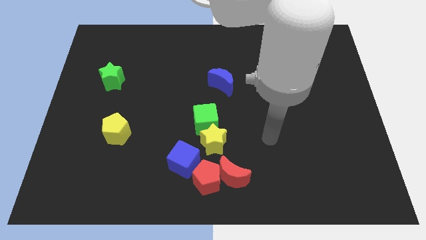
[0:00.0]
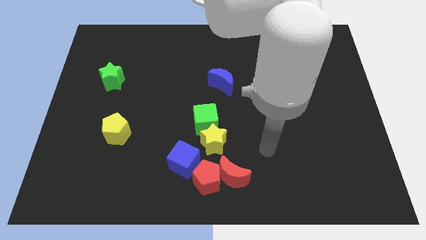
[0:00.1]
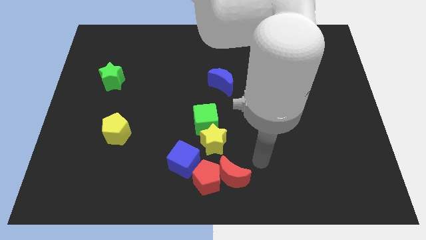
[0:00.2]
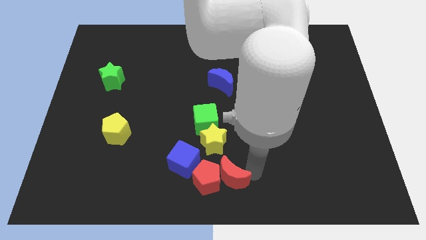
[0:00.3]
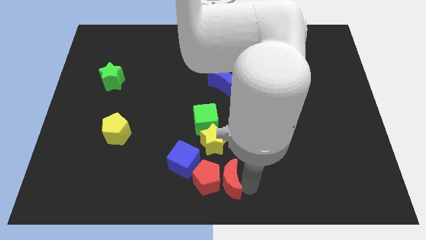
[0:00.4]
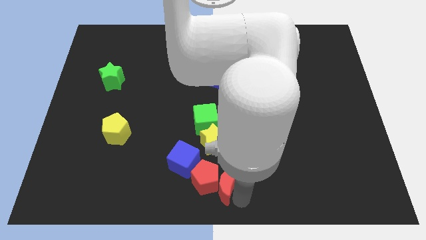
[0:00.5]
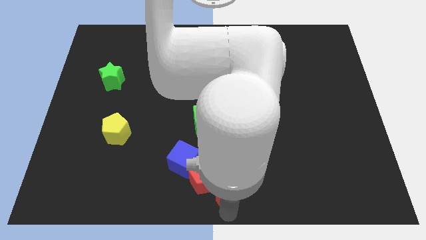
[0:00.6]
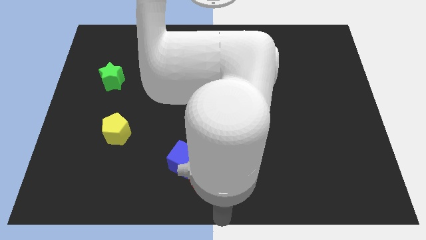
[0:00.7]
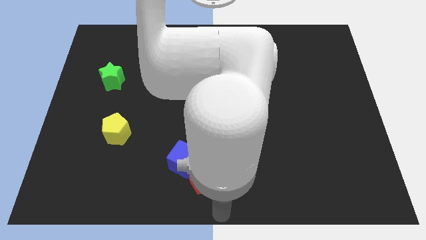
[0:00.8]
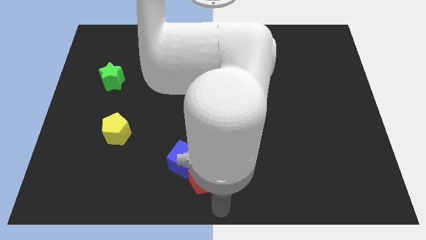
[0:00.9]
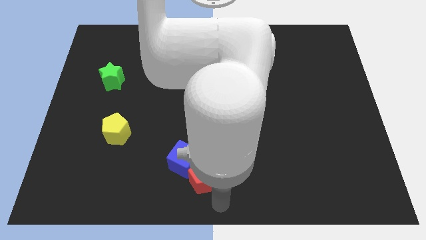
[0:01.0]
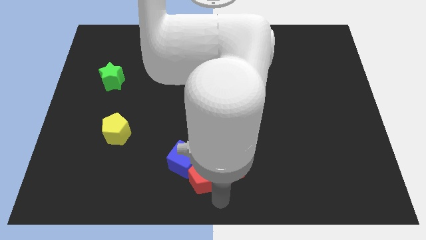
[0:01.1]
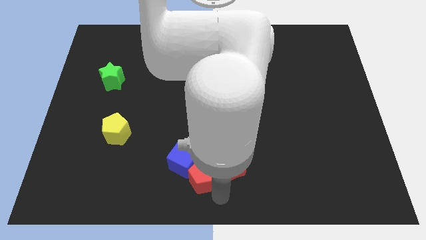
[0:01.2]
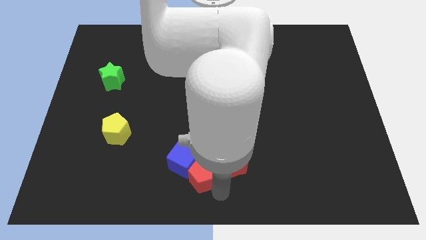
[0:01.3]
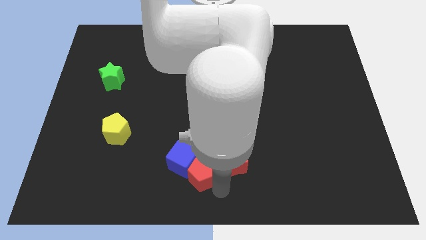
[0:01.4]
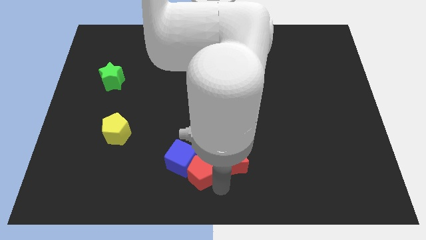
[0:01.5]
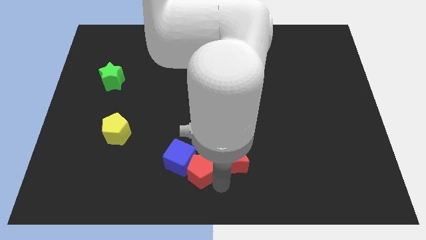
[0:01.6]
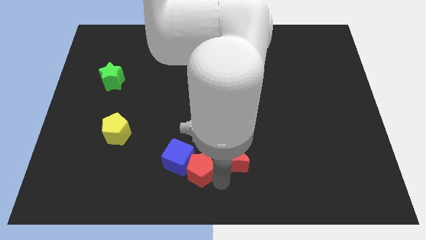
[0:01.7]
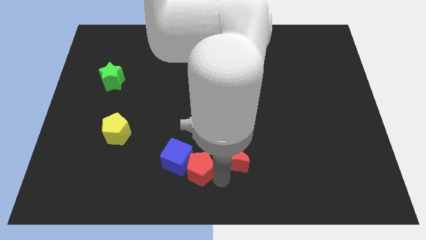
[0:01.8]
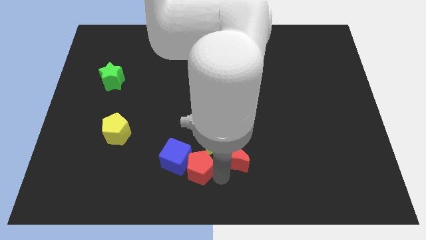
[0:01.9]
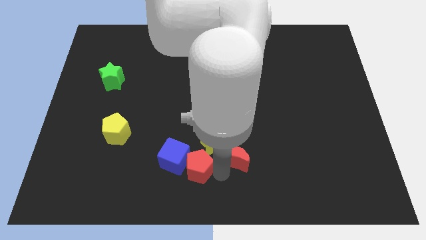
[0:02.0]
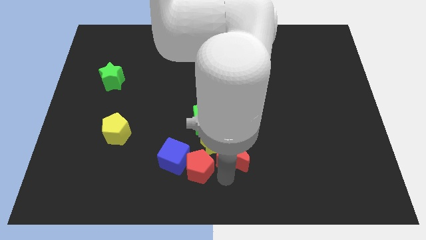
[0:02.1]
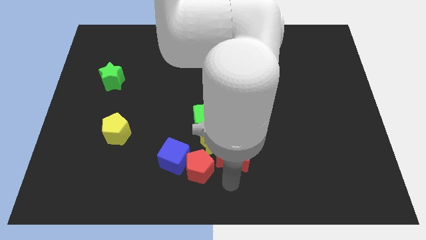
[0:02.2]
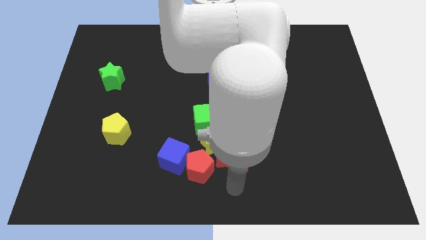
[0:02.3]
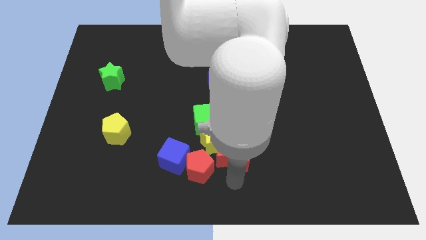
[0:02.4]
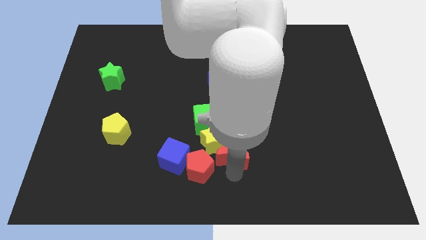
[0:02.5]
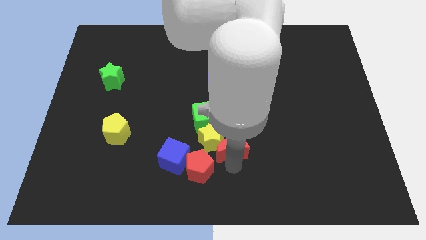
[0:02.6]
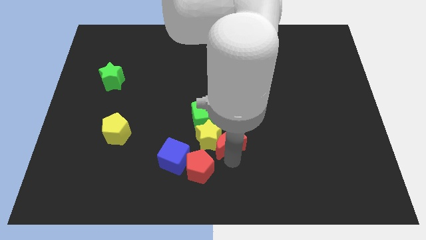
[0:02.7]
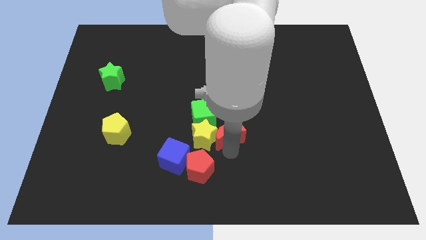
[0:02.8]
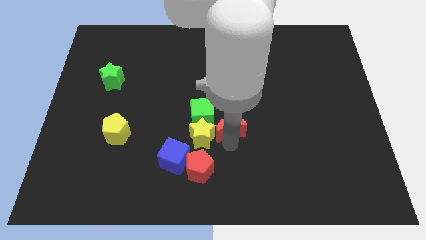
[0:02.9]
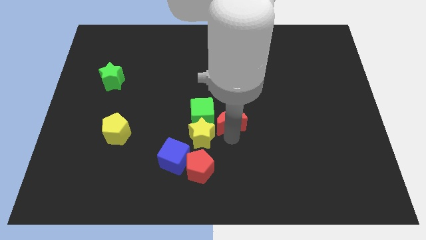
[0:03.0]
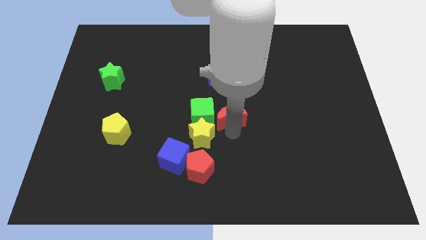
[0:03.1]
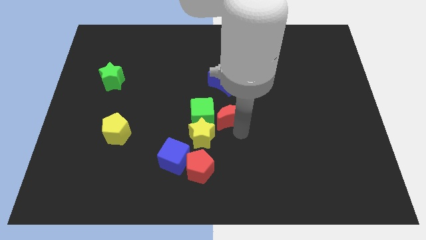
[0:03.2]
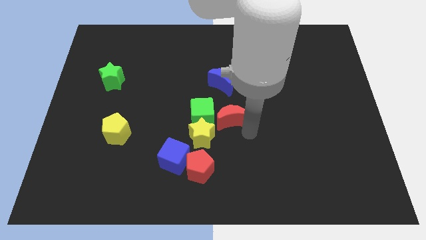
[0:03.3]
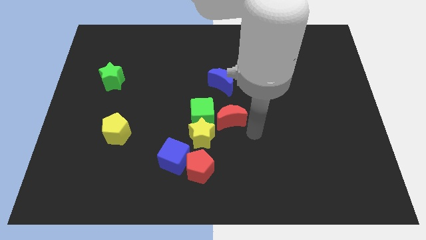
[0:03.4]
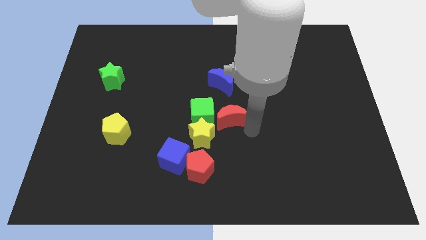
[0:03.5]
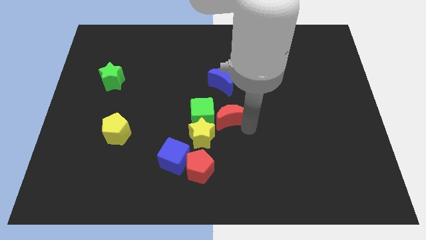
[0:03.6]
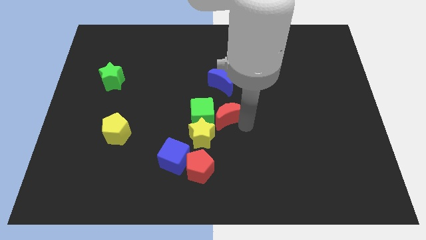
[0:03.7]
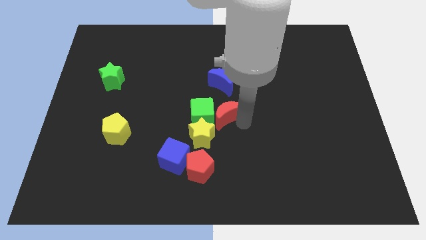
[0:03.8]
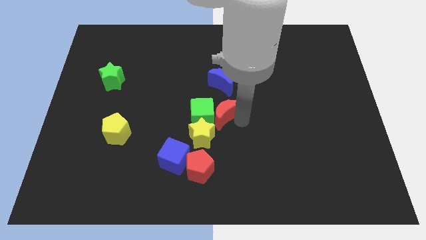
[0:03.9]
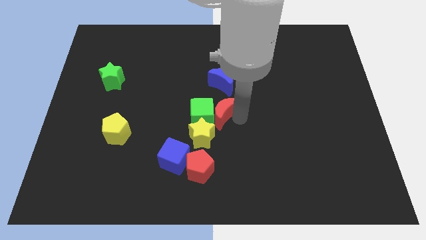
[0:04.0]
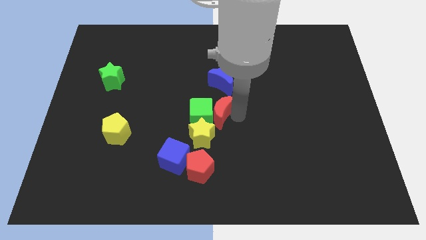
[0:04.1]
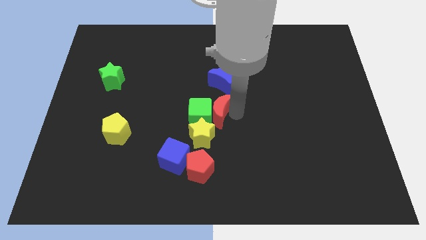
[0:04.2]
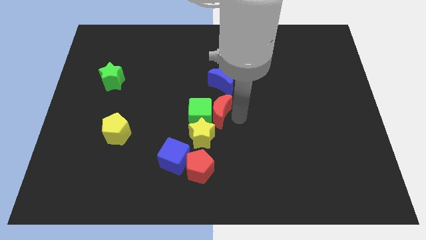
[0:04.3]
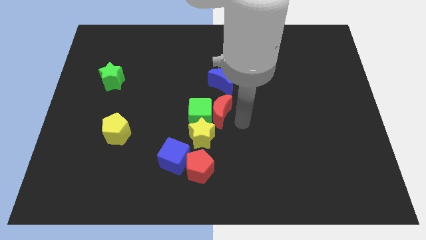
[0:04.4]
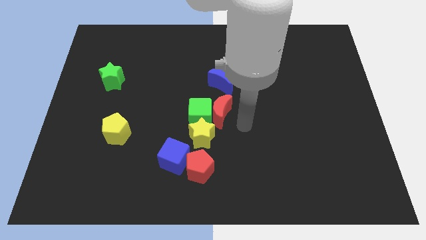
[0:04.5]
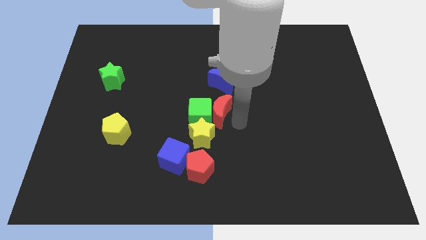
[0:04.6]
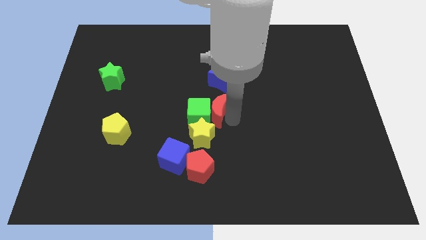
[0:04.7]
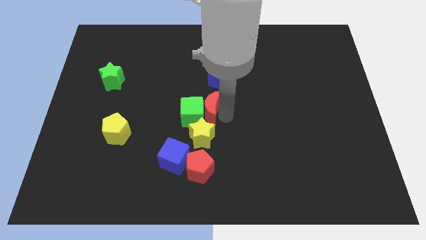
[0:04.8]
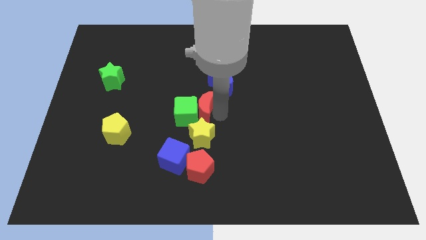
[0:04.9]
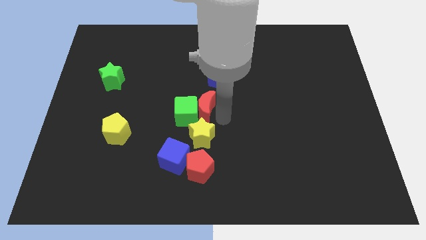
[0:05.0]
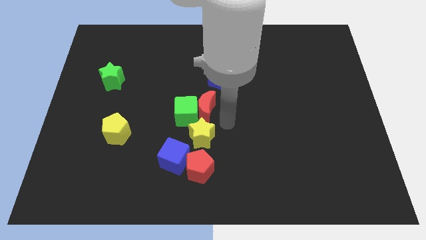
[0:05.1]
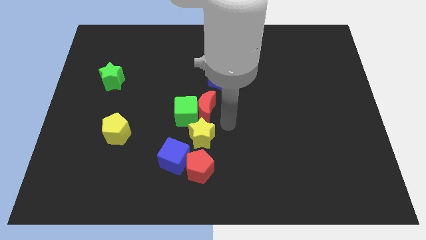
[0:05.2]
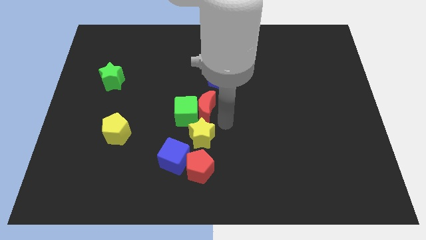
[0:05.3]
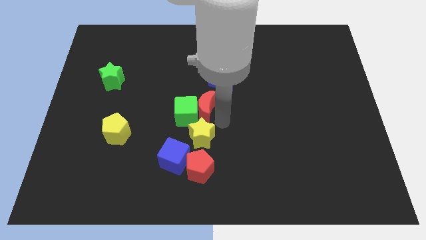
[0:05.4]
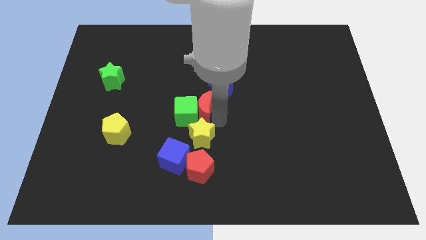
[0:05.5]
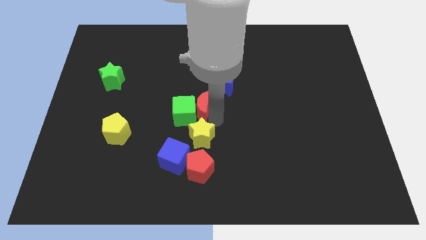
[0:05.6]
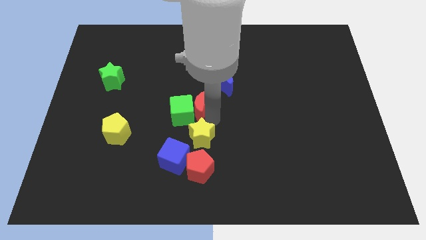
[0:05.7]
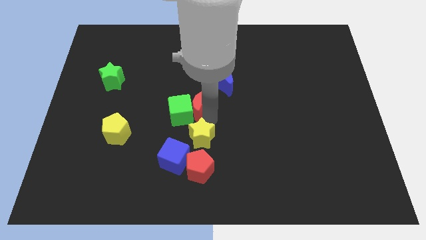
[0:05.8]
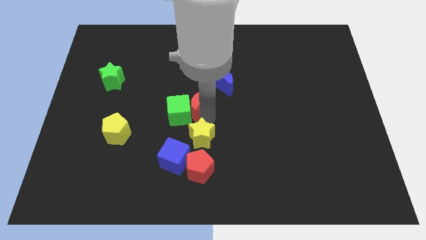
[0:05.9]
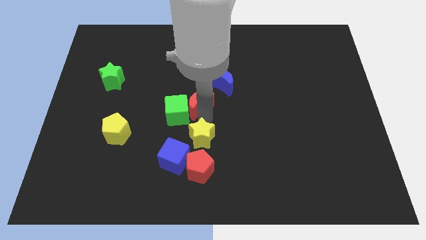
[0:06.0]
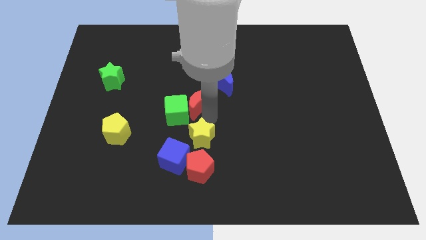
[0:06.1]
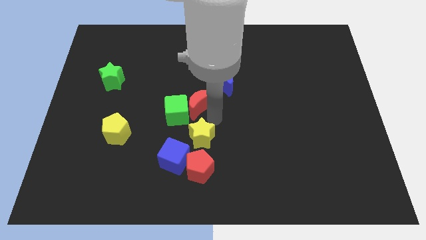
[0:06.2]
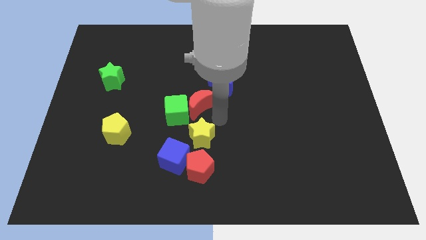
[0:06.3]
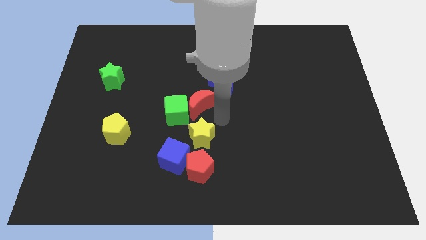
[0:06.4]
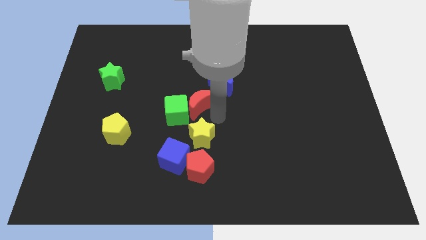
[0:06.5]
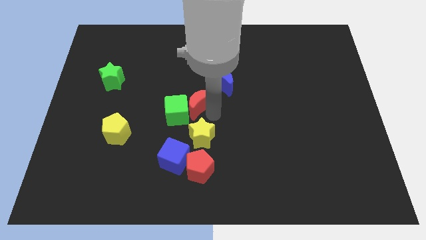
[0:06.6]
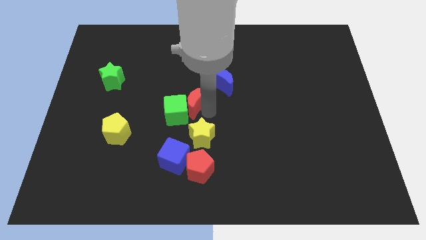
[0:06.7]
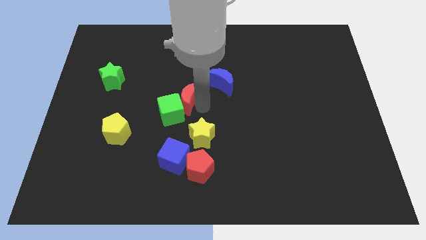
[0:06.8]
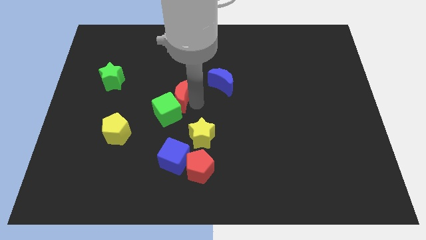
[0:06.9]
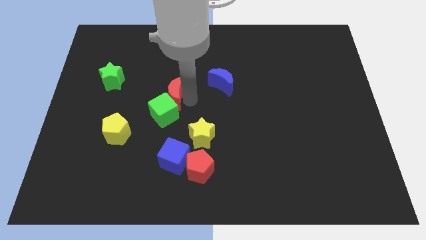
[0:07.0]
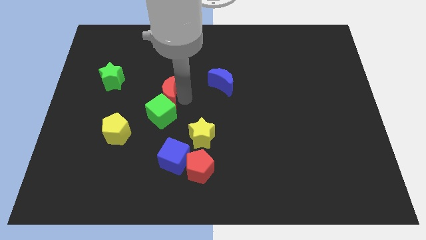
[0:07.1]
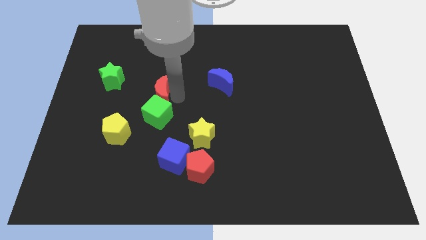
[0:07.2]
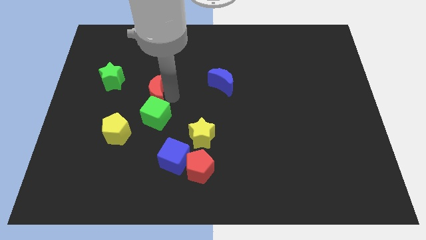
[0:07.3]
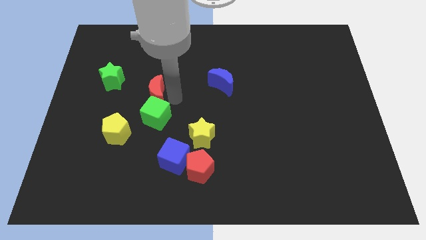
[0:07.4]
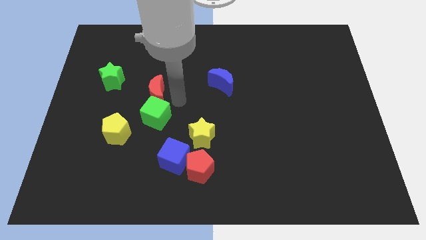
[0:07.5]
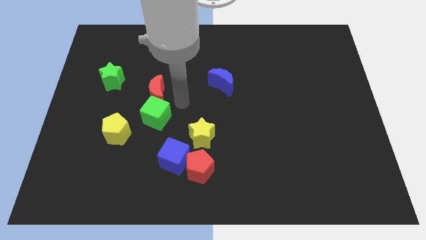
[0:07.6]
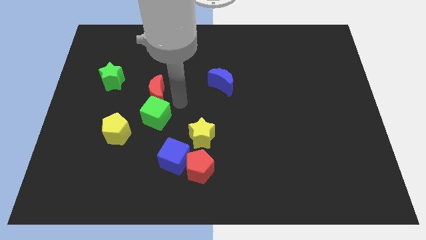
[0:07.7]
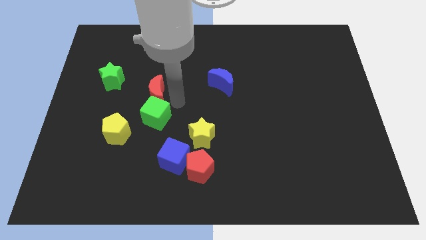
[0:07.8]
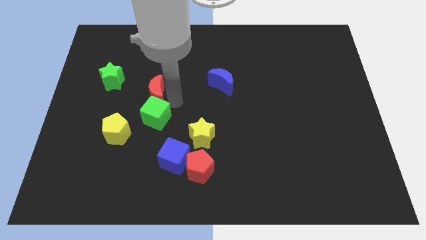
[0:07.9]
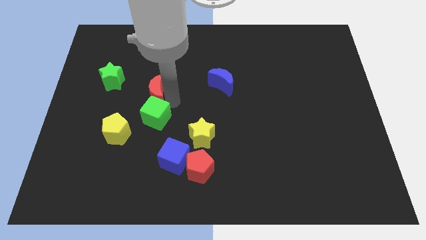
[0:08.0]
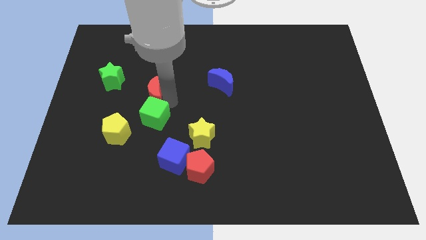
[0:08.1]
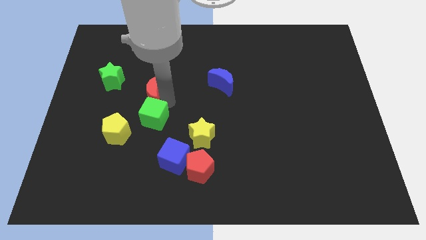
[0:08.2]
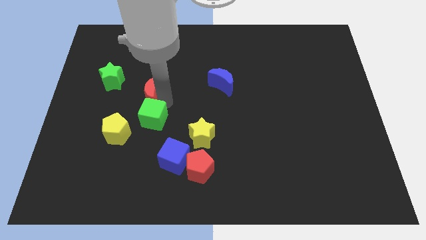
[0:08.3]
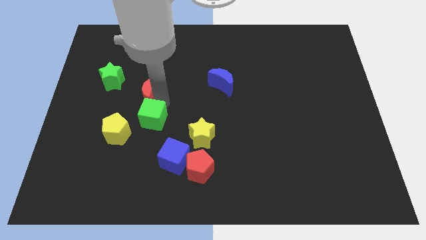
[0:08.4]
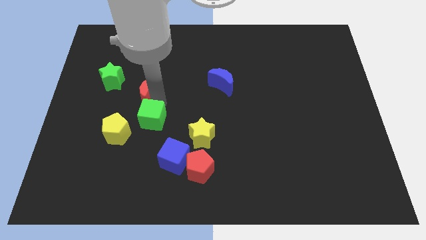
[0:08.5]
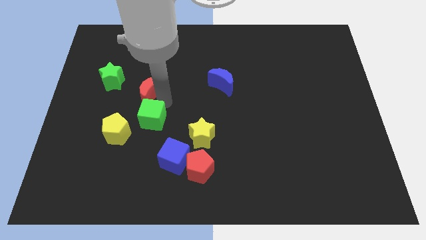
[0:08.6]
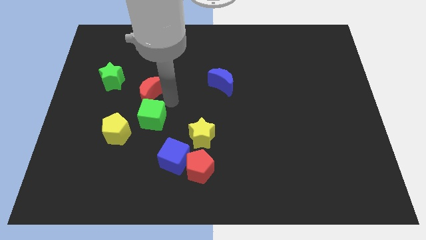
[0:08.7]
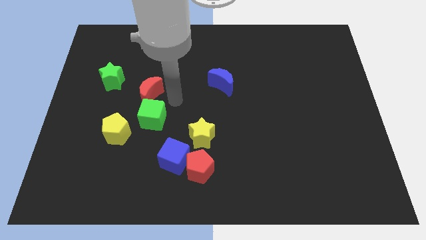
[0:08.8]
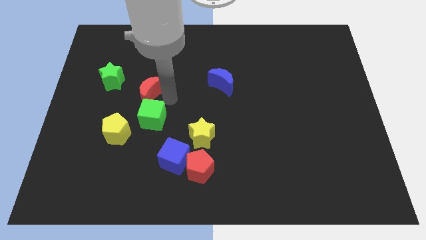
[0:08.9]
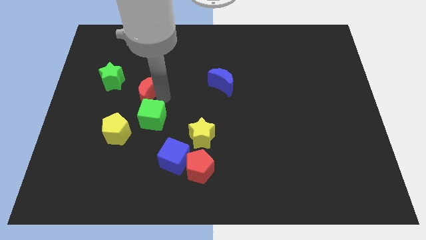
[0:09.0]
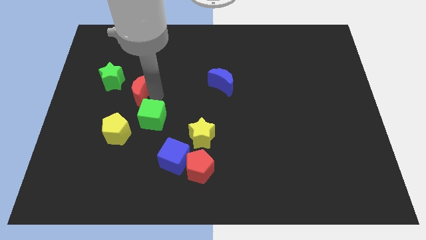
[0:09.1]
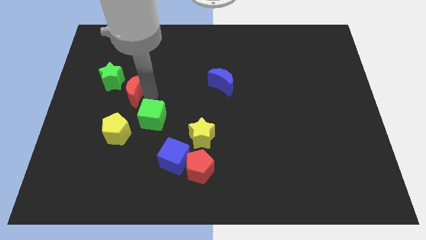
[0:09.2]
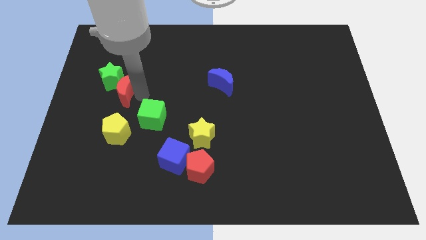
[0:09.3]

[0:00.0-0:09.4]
put the red moon next to the green star
